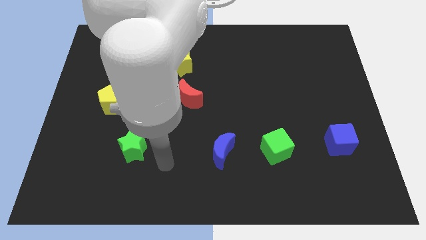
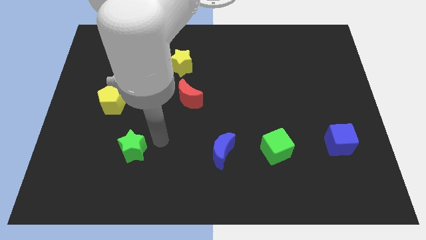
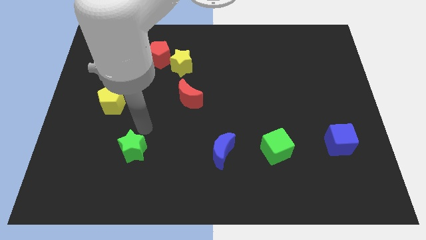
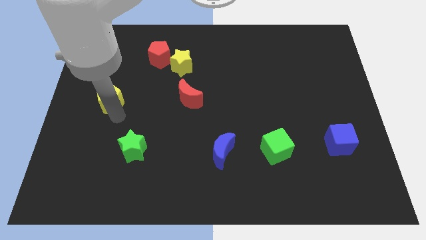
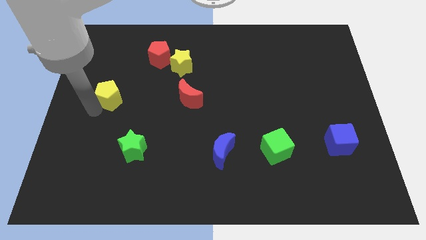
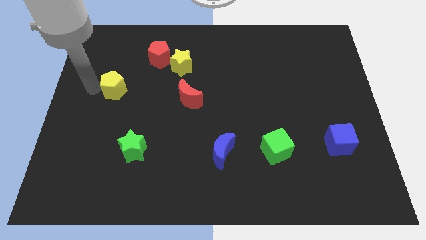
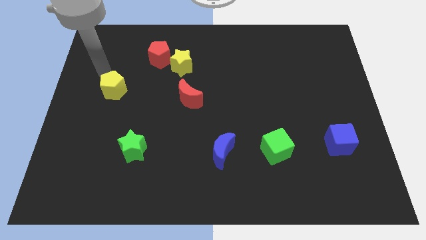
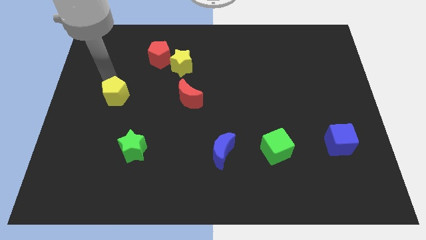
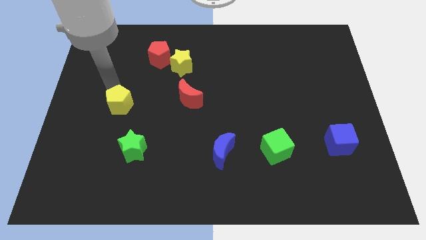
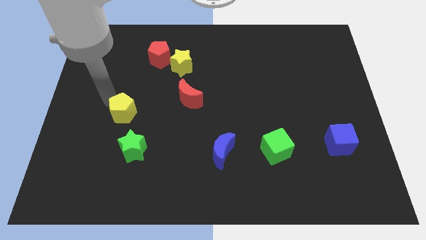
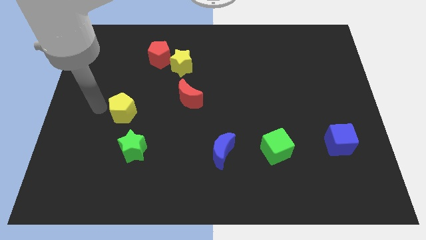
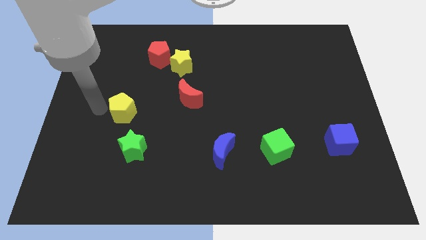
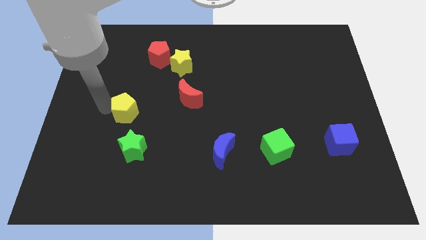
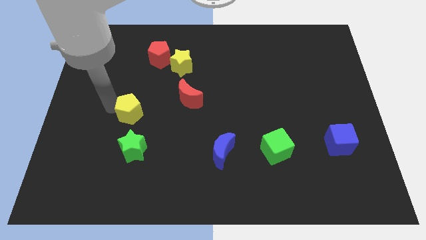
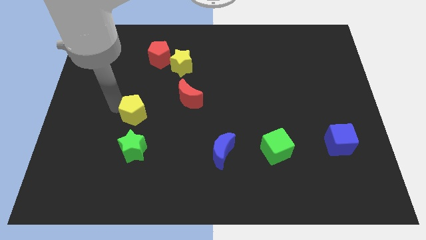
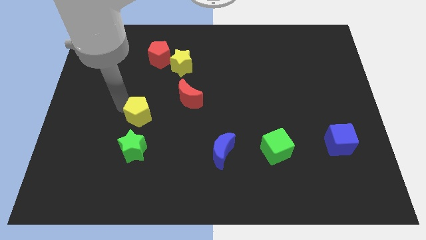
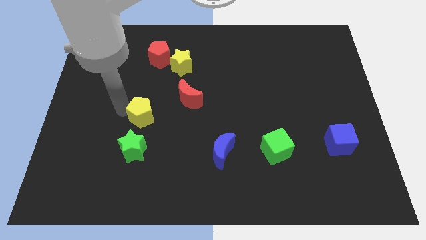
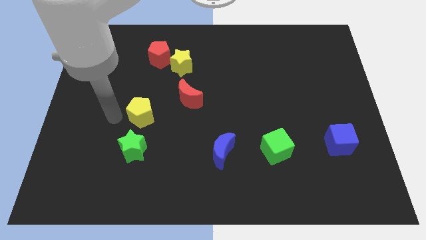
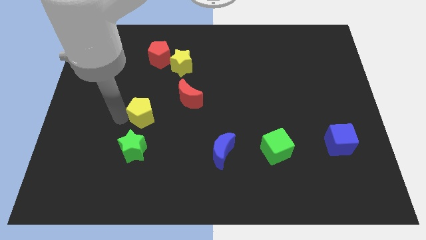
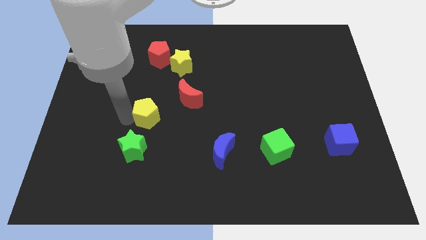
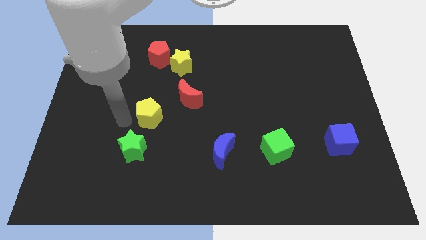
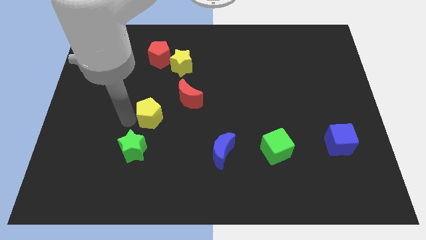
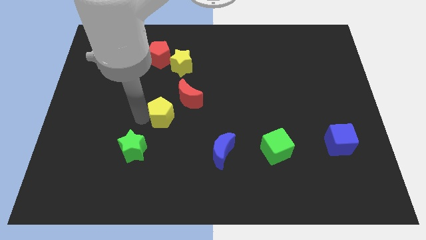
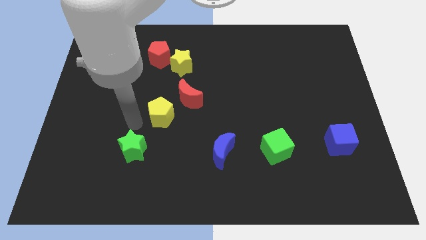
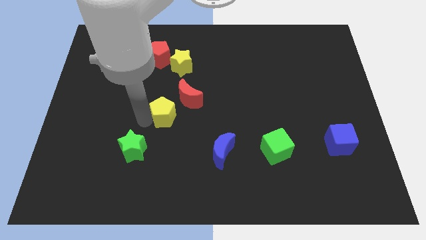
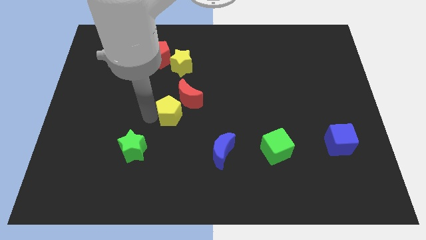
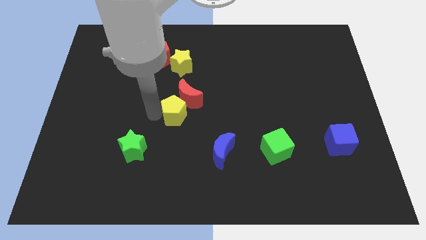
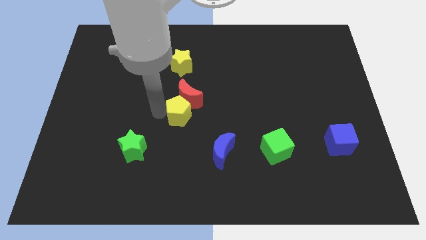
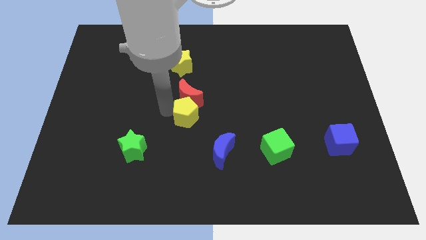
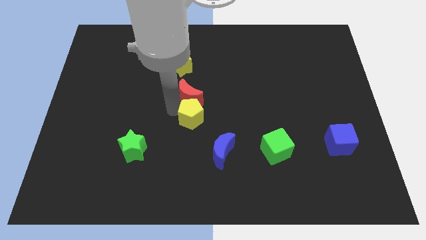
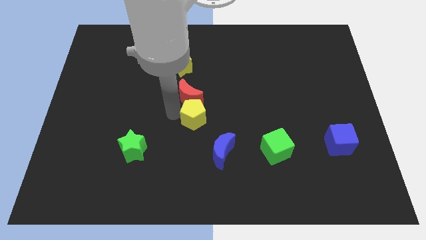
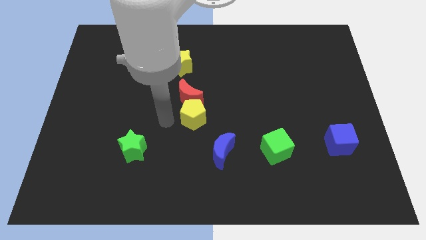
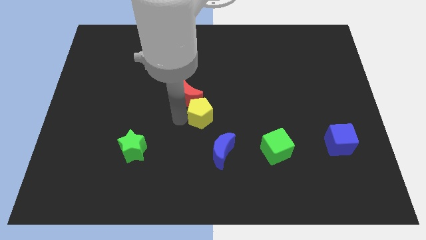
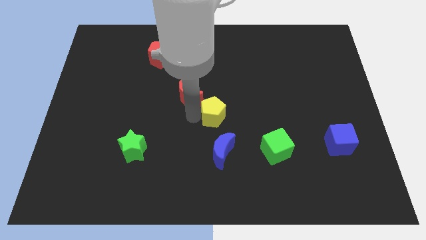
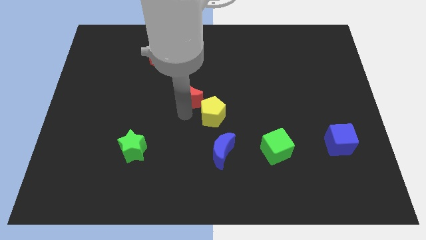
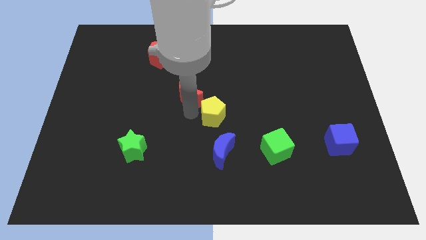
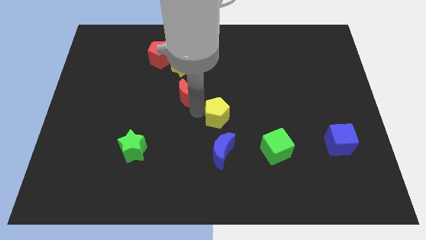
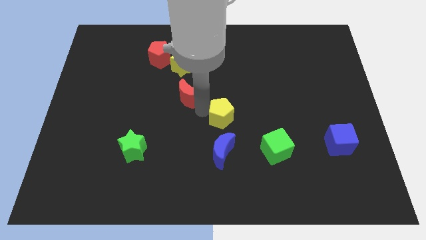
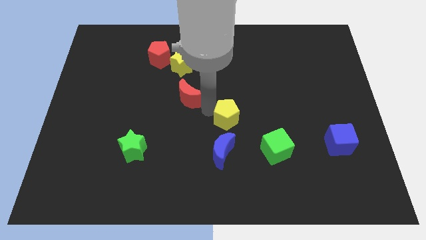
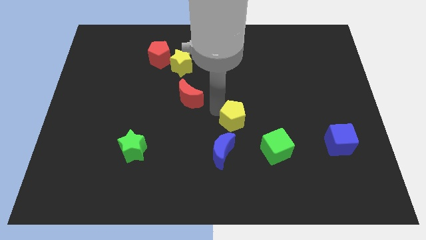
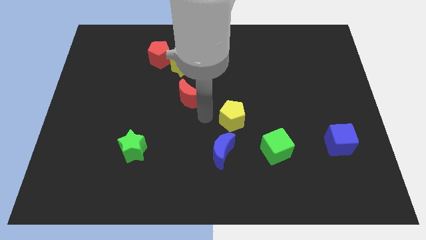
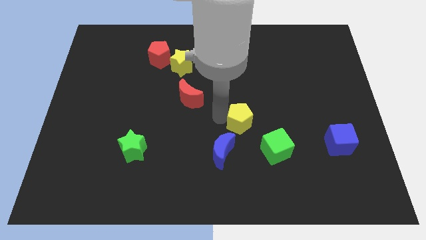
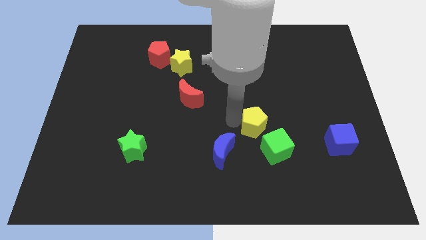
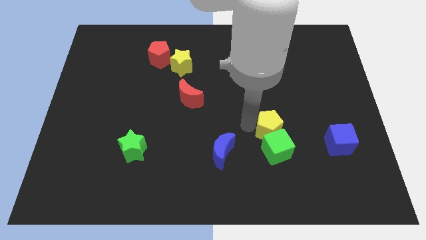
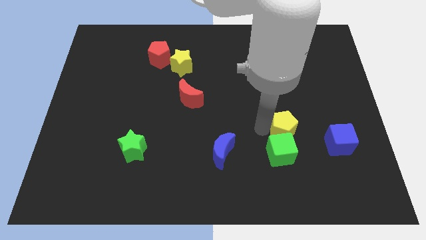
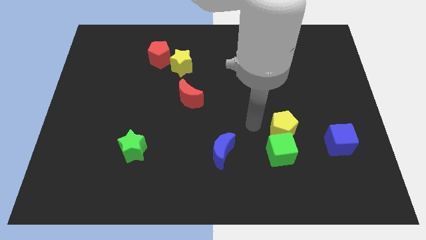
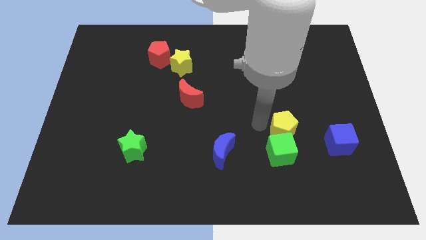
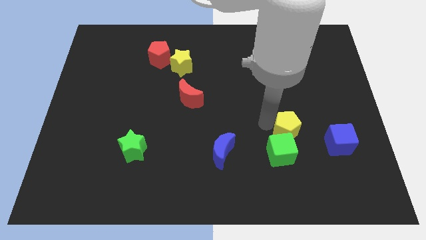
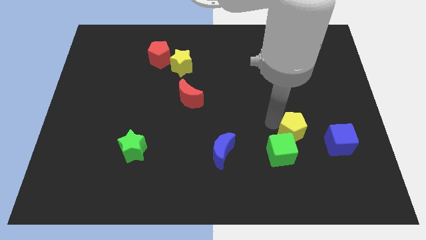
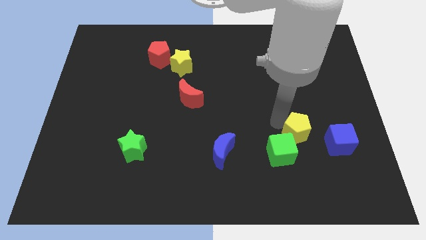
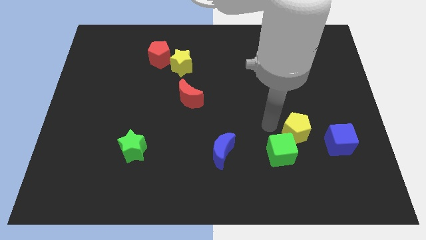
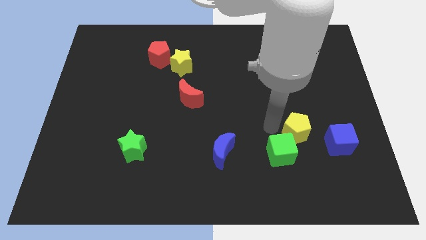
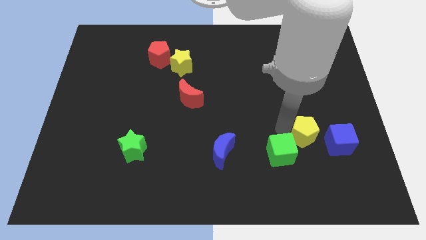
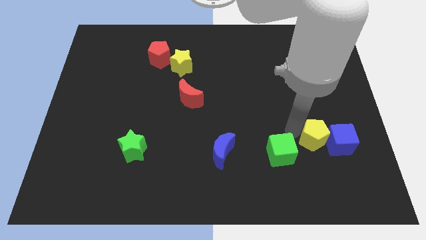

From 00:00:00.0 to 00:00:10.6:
move the yellow pentagon next to the blue cube

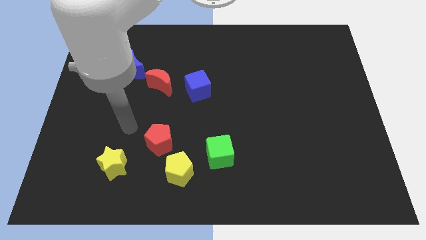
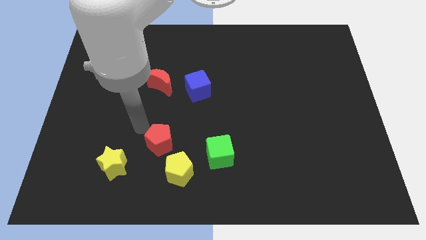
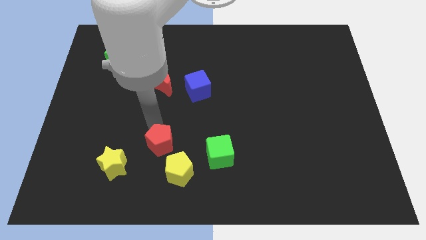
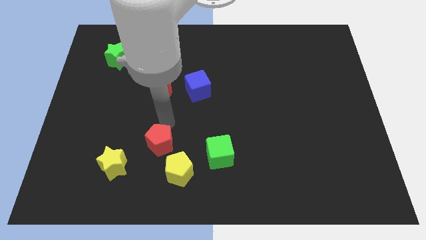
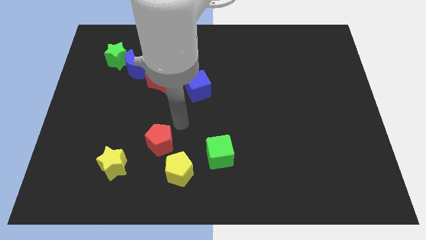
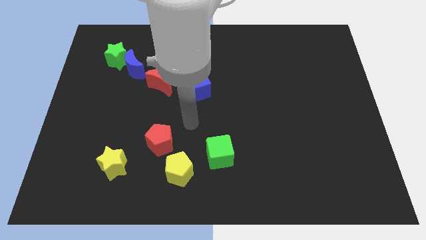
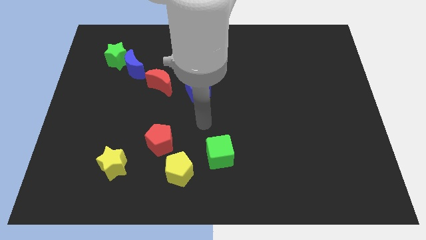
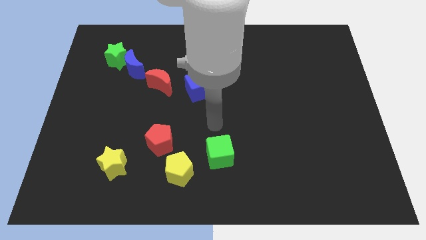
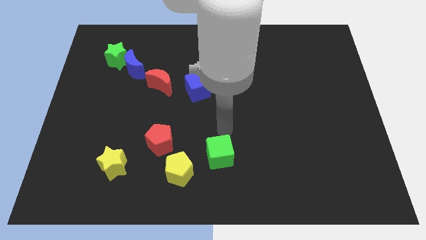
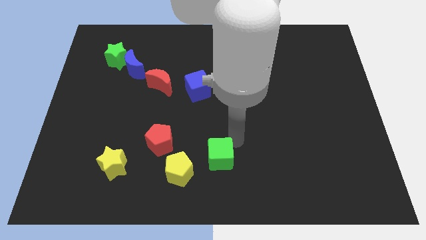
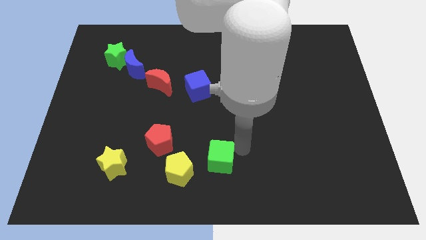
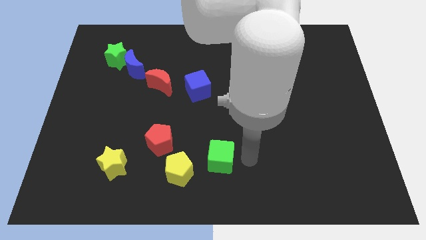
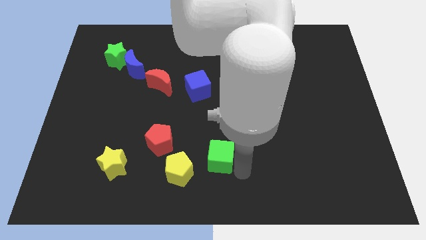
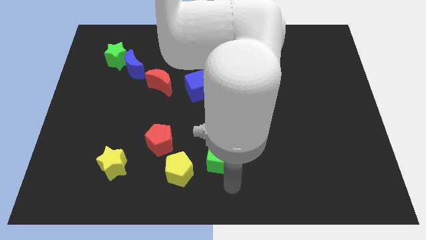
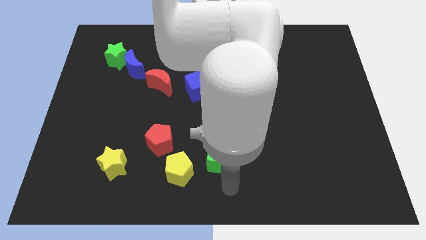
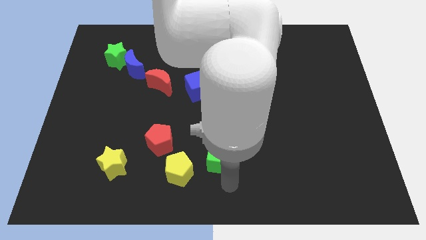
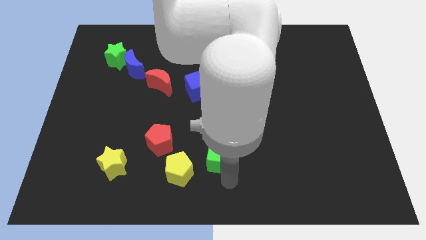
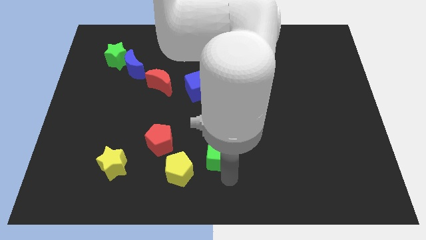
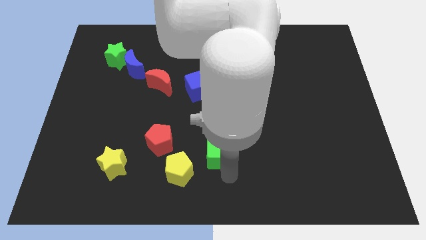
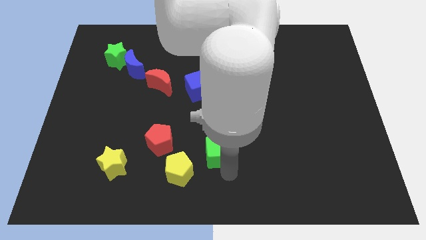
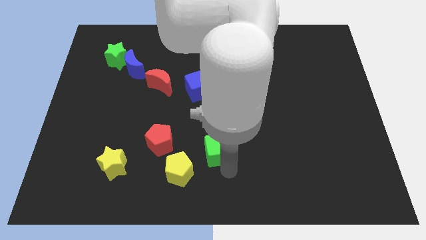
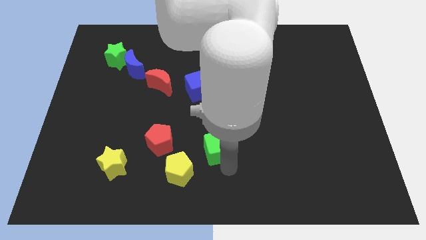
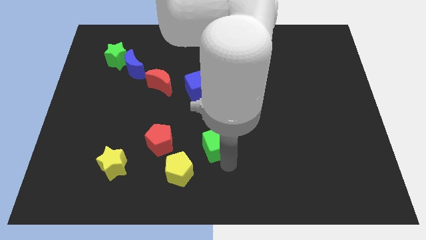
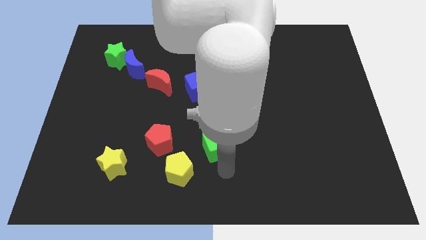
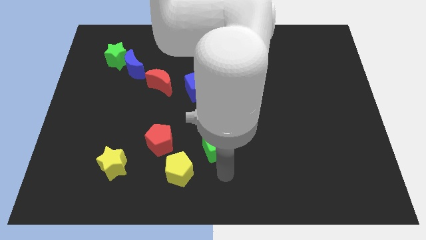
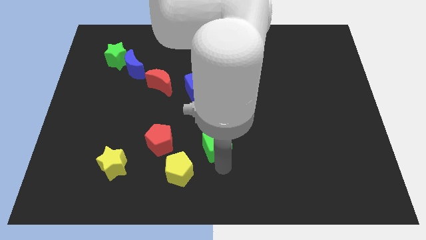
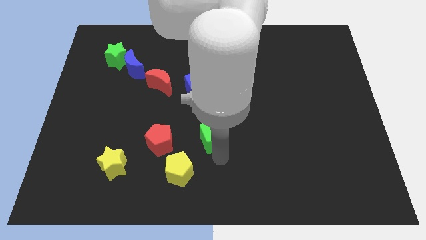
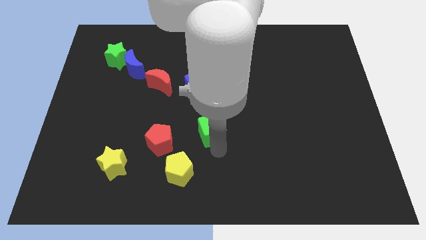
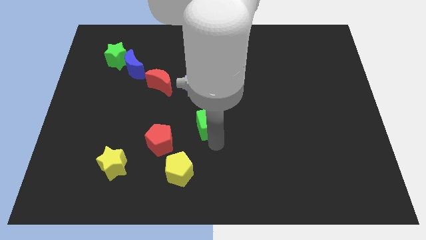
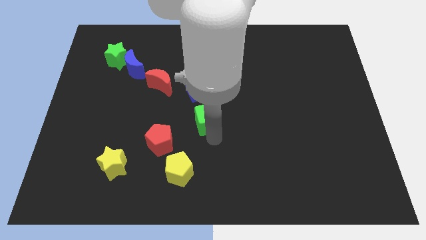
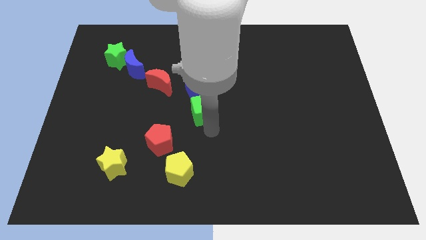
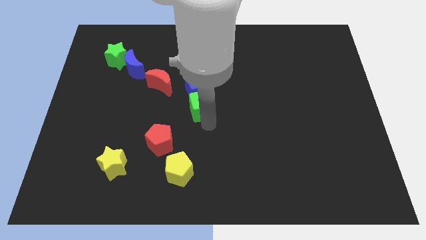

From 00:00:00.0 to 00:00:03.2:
move the green cube next to the blue cube
